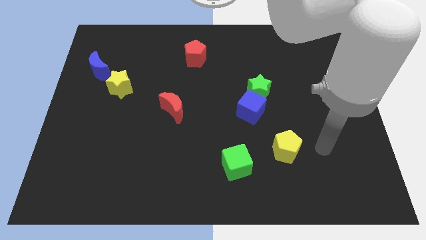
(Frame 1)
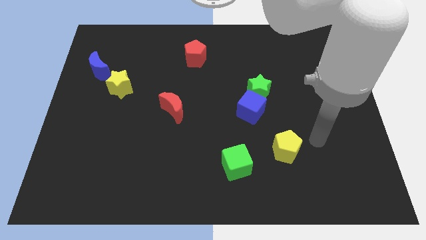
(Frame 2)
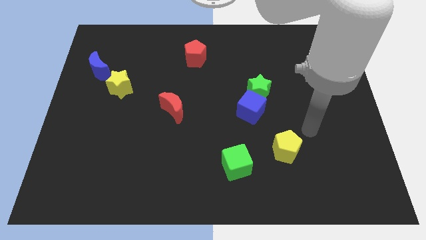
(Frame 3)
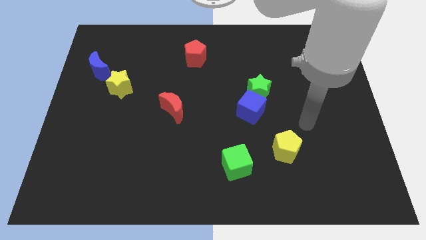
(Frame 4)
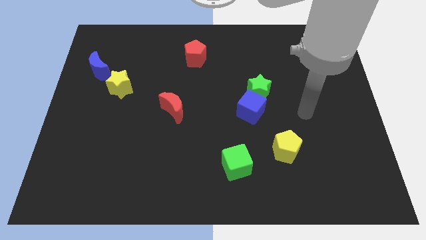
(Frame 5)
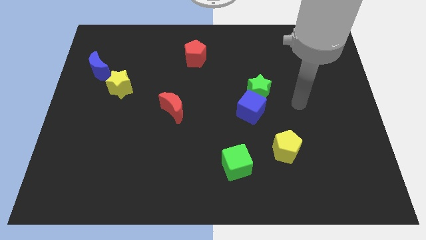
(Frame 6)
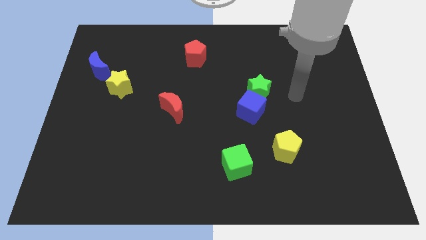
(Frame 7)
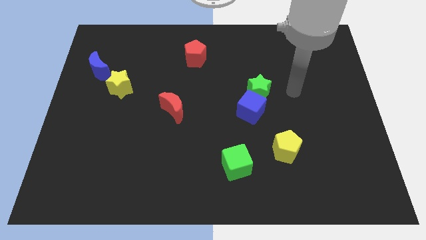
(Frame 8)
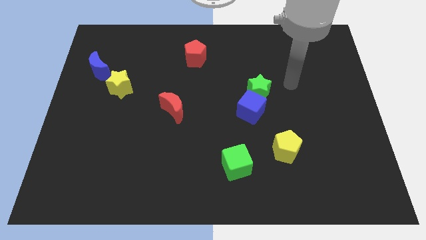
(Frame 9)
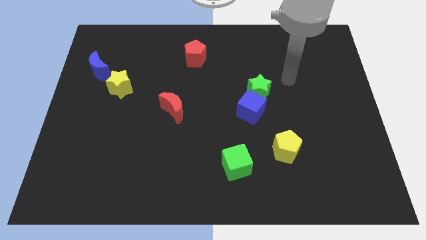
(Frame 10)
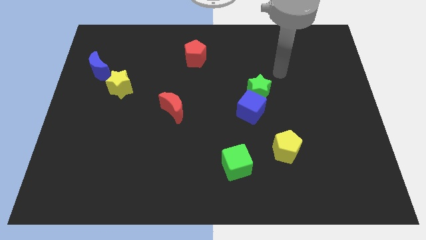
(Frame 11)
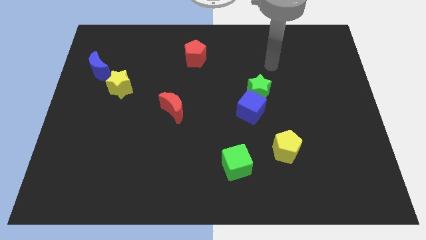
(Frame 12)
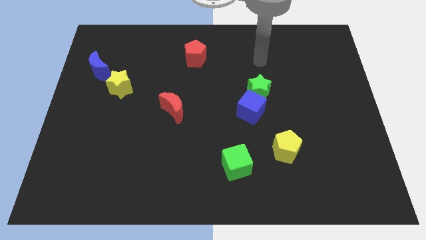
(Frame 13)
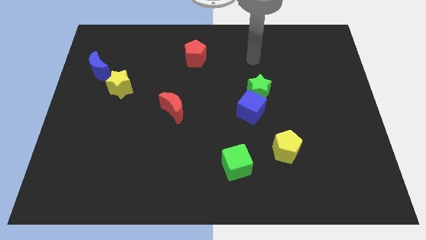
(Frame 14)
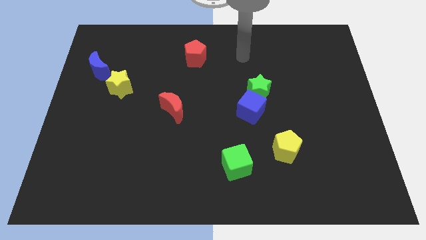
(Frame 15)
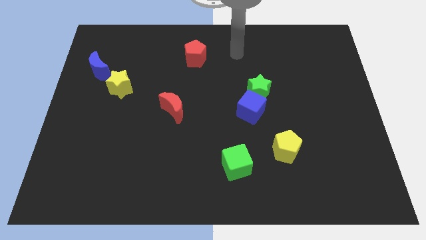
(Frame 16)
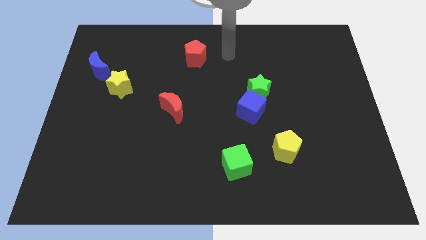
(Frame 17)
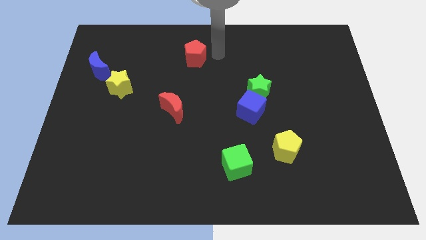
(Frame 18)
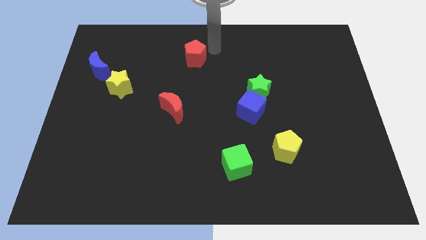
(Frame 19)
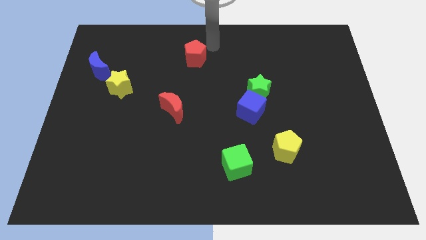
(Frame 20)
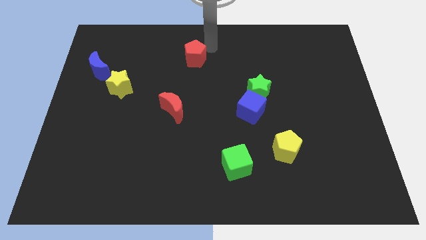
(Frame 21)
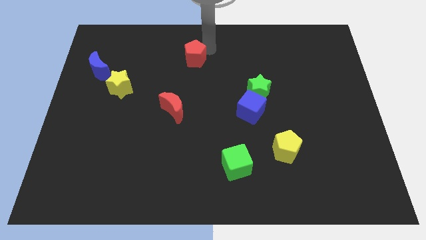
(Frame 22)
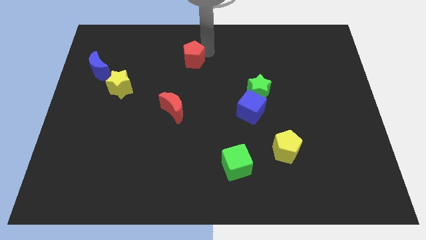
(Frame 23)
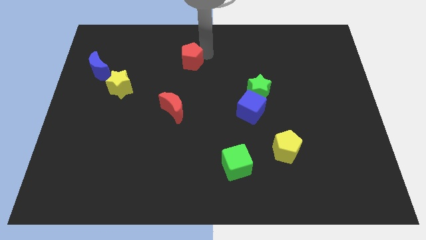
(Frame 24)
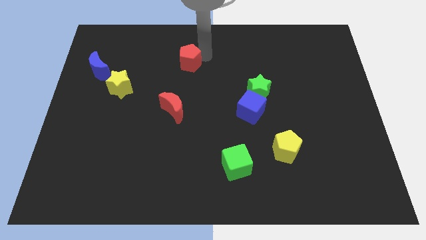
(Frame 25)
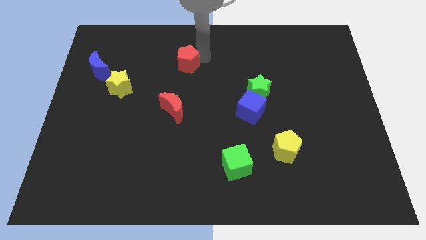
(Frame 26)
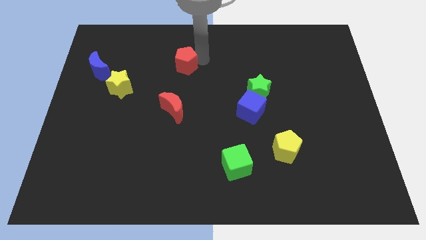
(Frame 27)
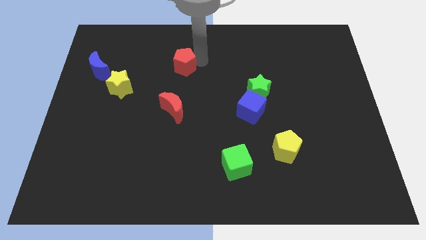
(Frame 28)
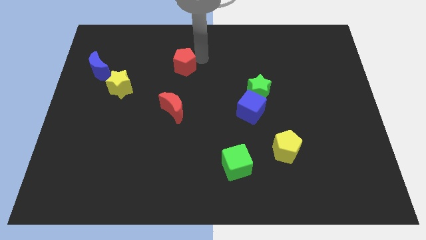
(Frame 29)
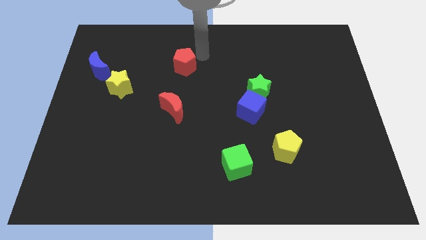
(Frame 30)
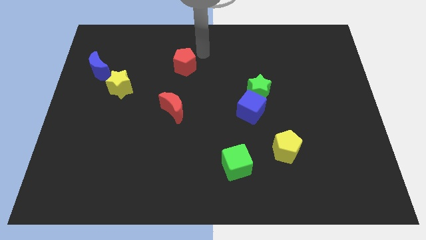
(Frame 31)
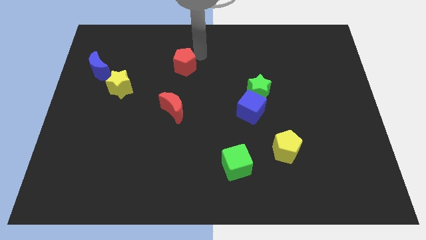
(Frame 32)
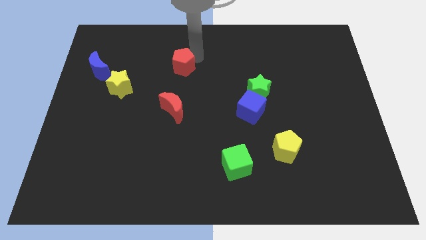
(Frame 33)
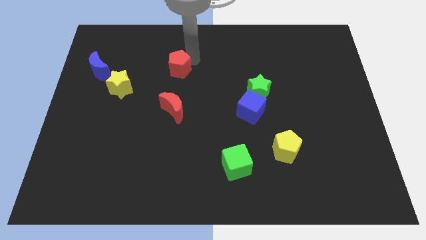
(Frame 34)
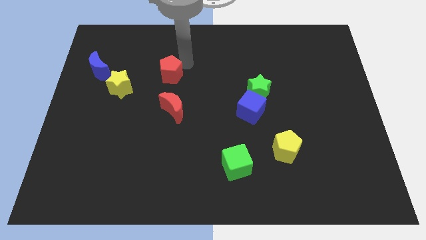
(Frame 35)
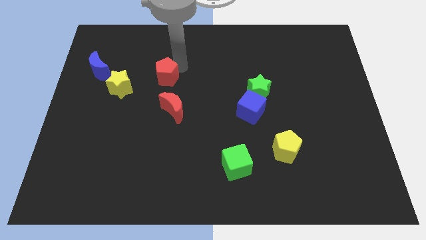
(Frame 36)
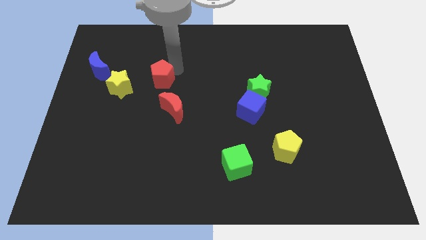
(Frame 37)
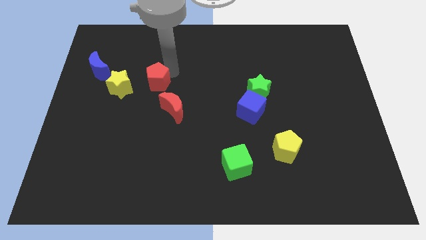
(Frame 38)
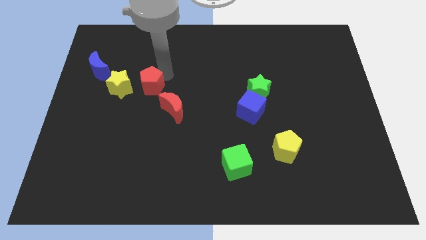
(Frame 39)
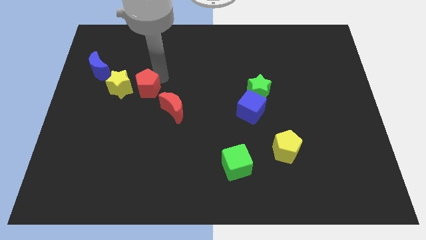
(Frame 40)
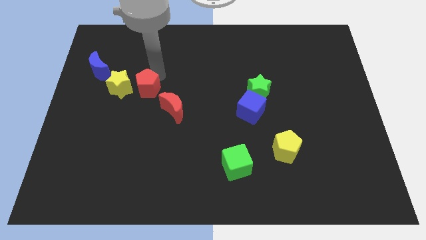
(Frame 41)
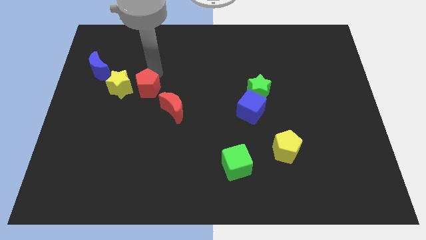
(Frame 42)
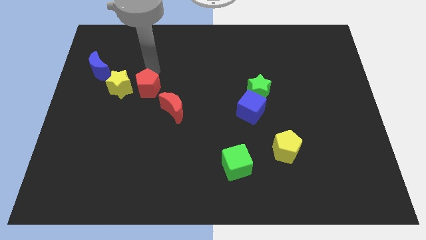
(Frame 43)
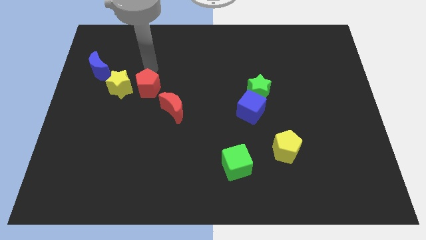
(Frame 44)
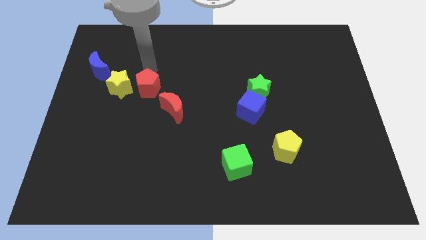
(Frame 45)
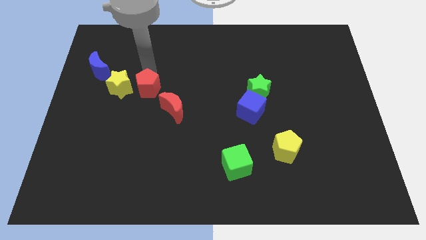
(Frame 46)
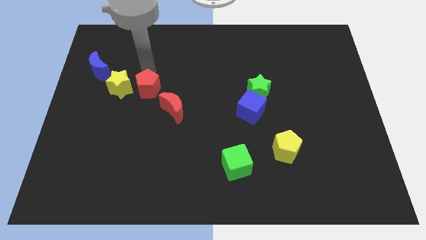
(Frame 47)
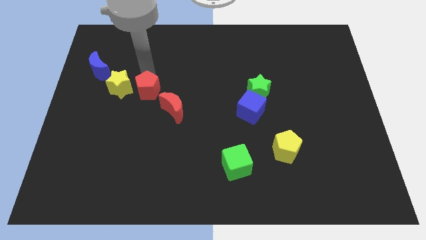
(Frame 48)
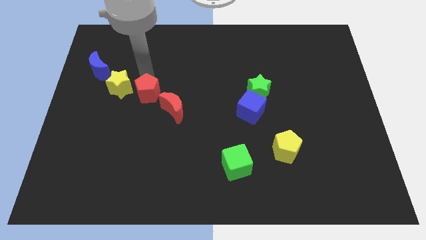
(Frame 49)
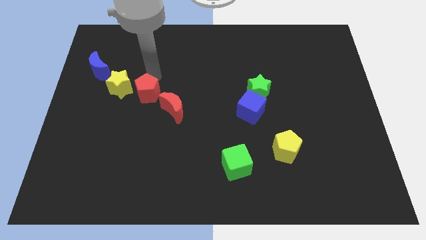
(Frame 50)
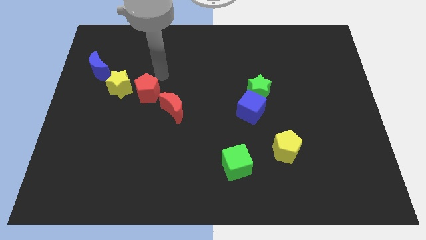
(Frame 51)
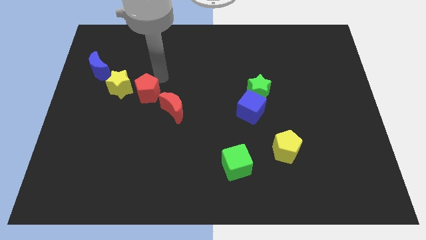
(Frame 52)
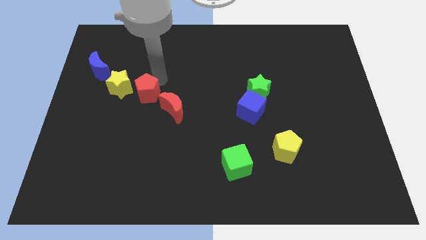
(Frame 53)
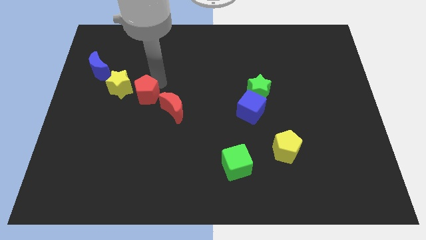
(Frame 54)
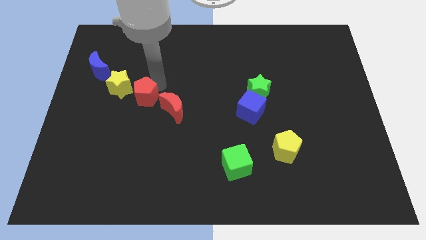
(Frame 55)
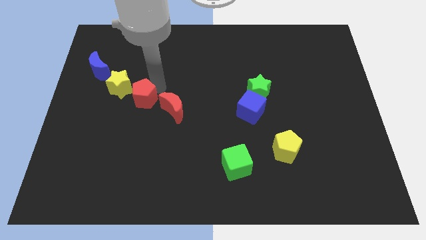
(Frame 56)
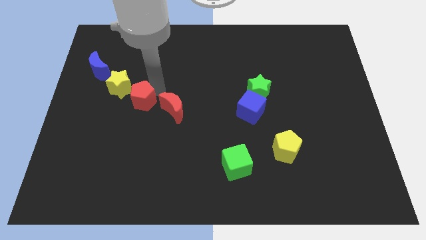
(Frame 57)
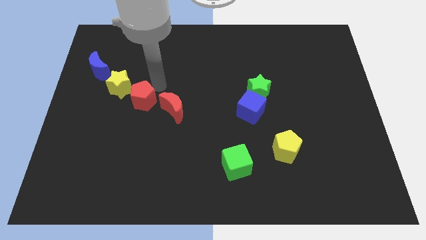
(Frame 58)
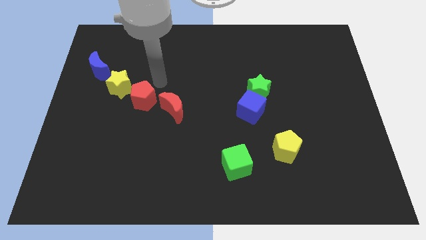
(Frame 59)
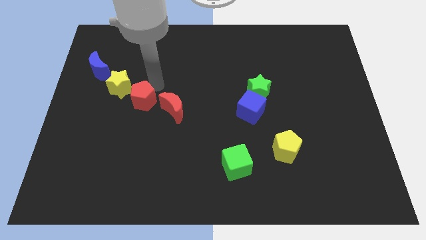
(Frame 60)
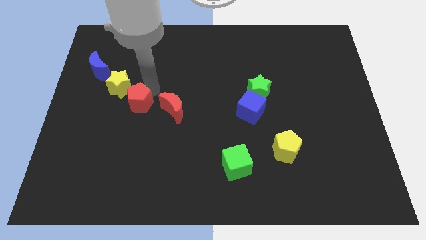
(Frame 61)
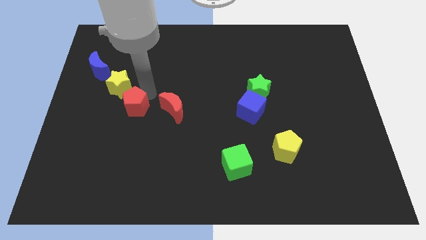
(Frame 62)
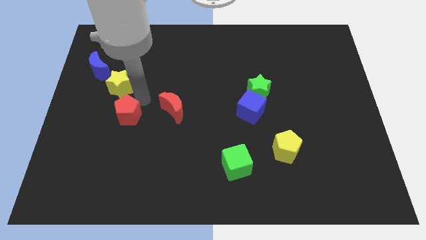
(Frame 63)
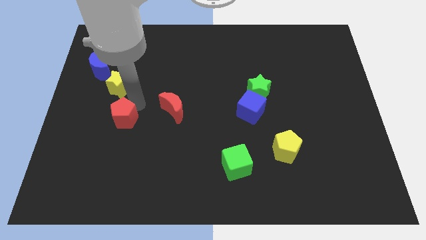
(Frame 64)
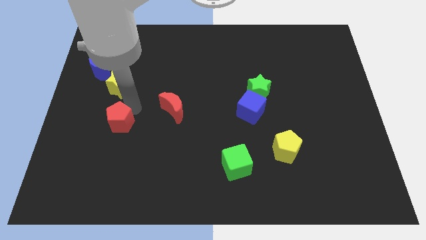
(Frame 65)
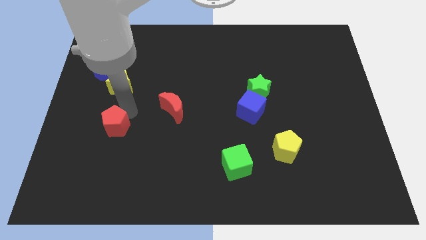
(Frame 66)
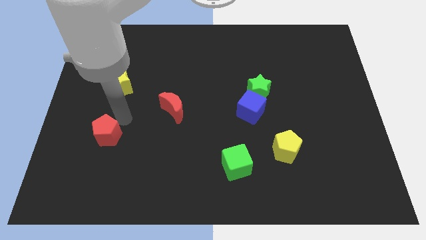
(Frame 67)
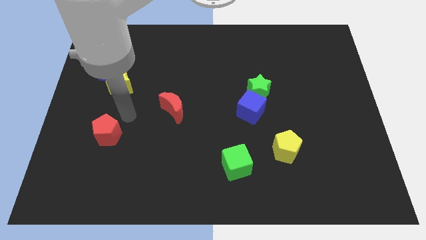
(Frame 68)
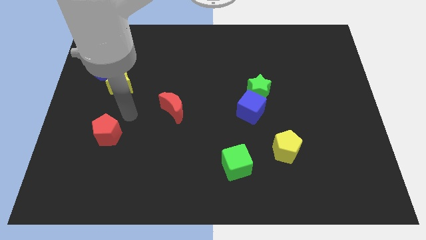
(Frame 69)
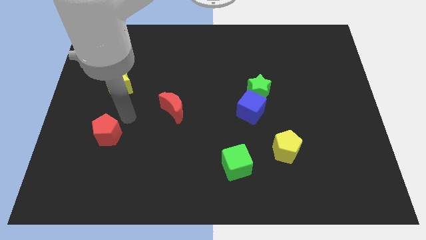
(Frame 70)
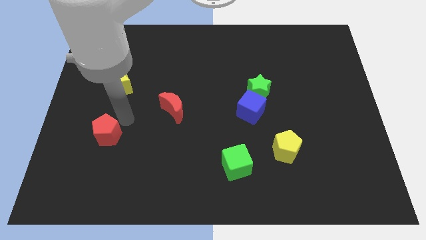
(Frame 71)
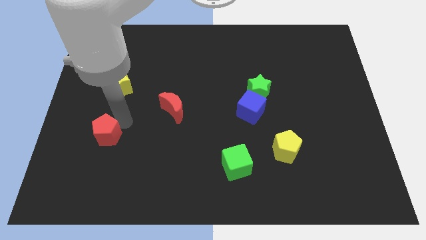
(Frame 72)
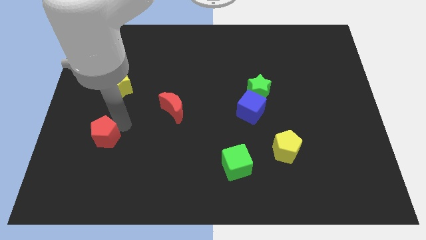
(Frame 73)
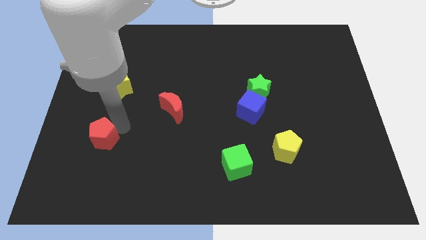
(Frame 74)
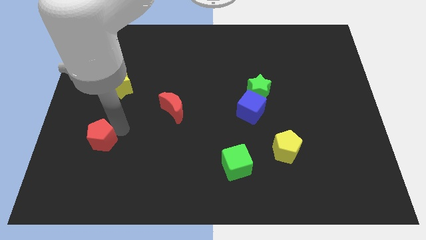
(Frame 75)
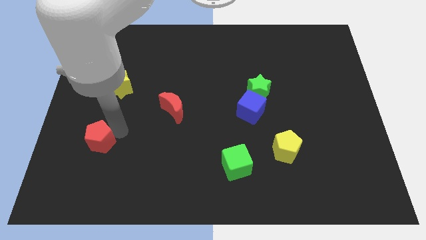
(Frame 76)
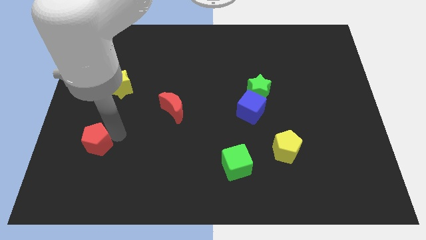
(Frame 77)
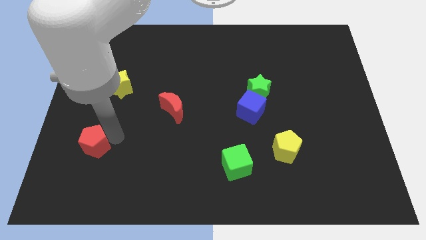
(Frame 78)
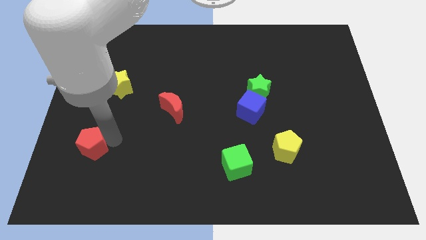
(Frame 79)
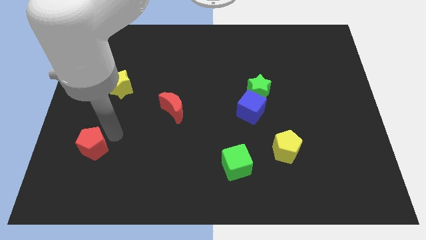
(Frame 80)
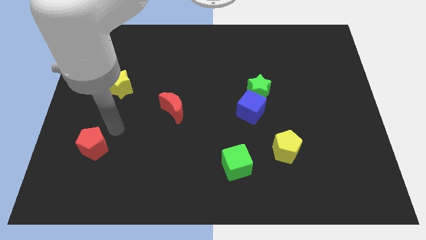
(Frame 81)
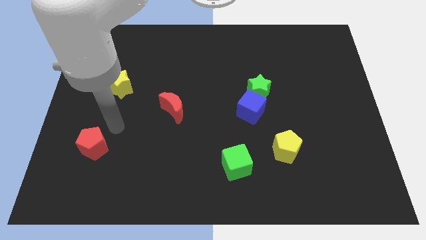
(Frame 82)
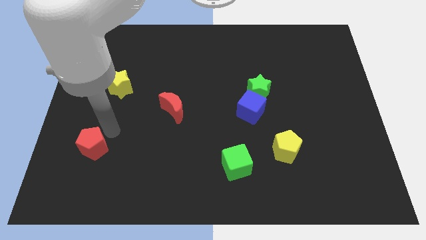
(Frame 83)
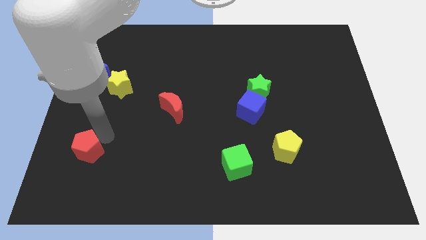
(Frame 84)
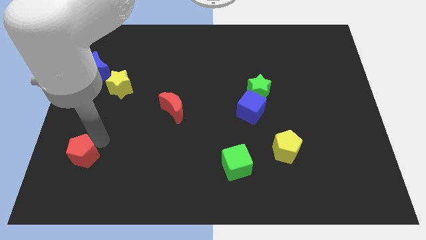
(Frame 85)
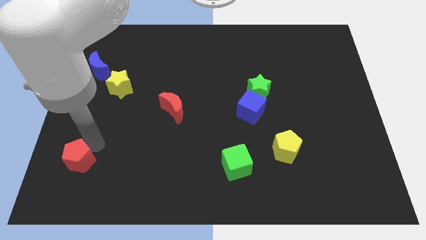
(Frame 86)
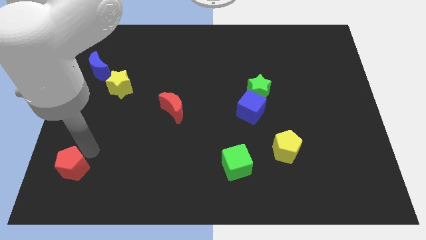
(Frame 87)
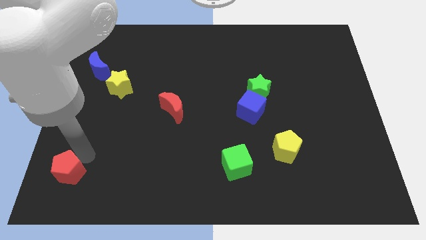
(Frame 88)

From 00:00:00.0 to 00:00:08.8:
push the red pentagon to the lower left corner
